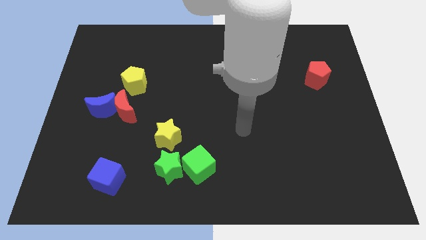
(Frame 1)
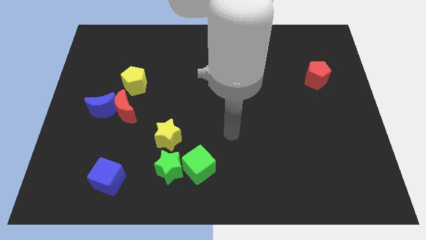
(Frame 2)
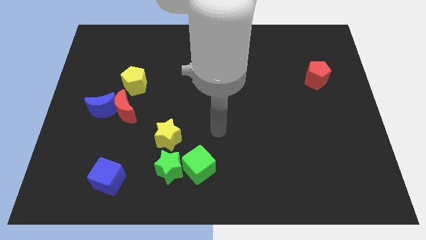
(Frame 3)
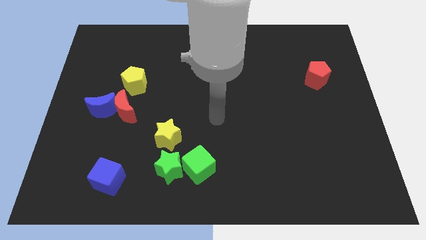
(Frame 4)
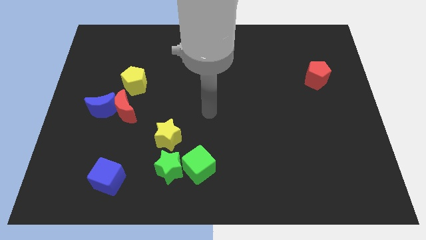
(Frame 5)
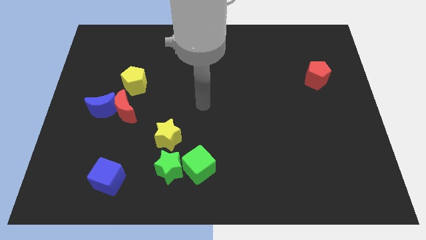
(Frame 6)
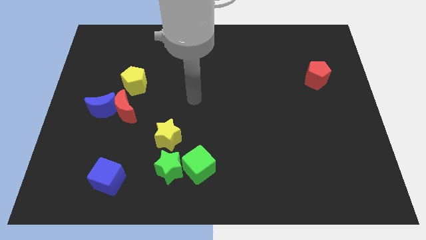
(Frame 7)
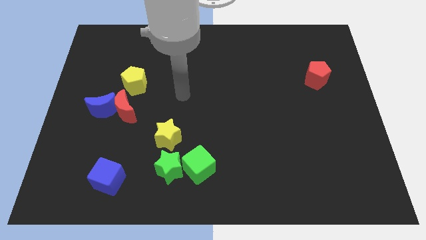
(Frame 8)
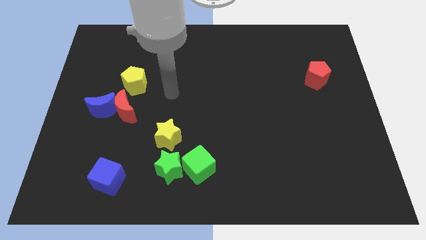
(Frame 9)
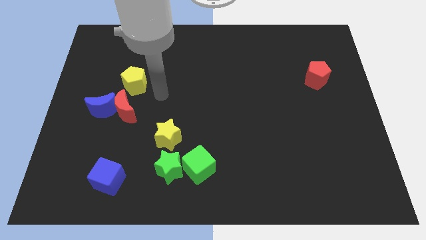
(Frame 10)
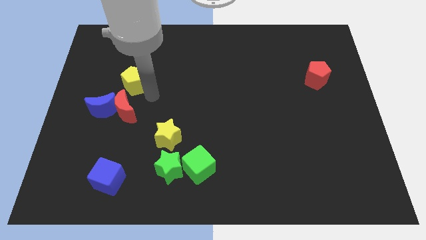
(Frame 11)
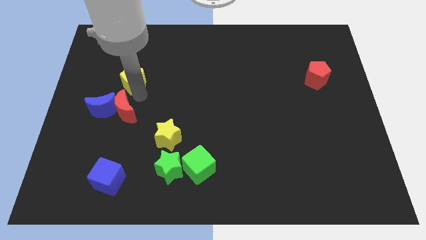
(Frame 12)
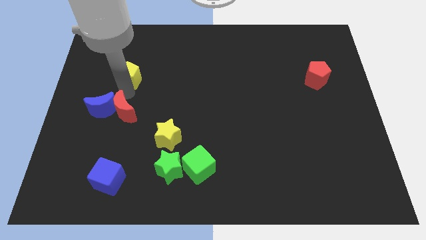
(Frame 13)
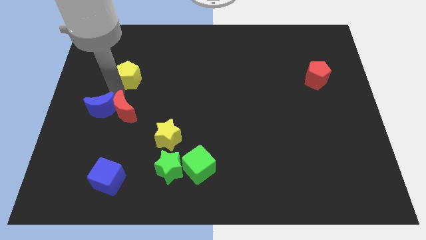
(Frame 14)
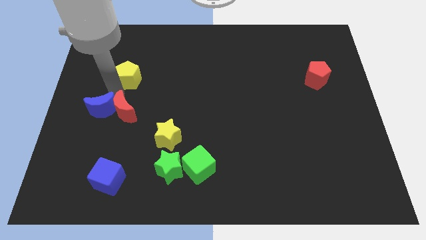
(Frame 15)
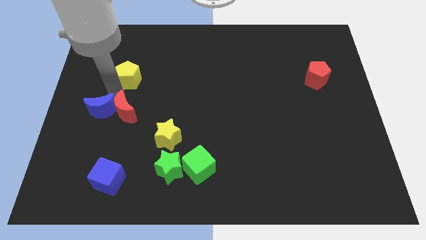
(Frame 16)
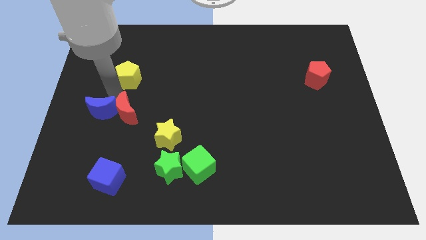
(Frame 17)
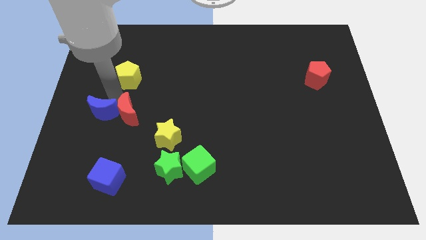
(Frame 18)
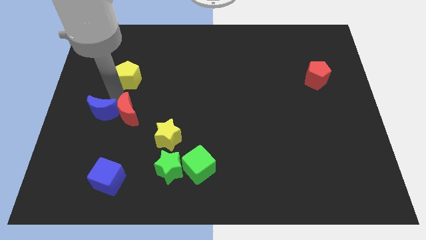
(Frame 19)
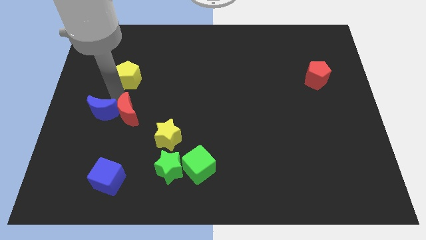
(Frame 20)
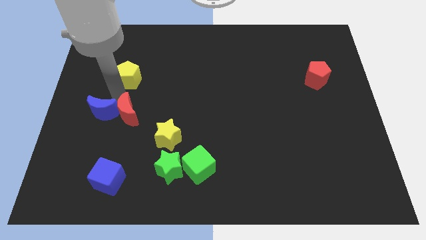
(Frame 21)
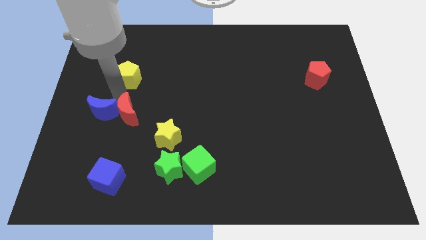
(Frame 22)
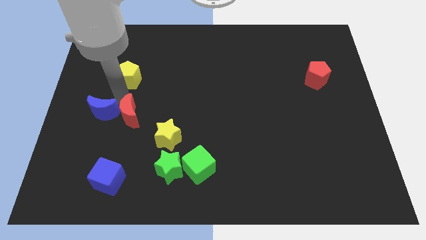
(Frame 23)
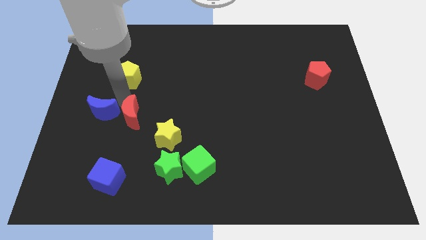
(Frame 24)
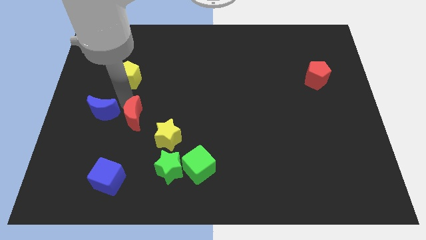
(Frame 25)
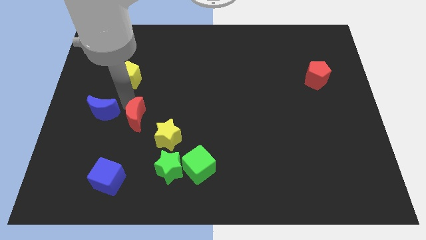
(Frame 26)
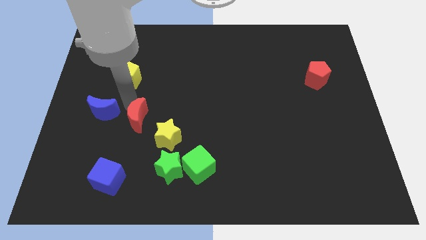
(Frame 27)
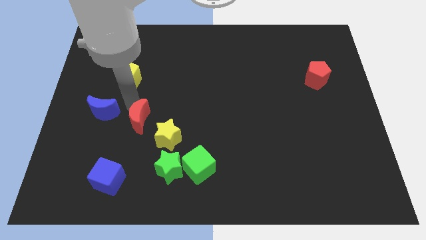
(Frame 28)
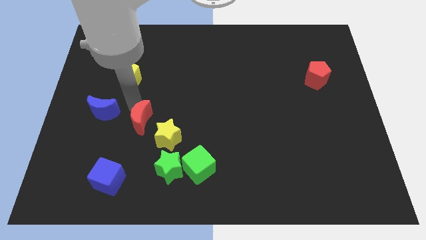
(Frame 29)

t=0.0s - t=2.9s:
move the red moon away from the blue moon and yellow pentagon

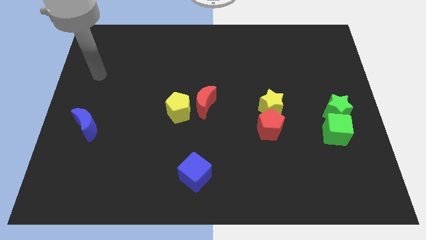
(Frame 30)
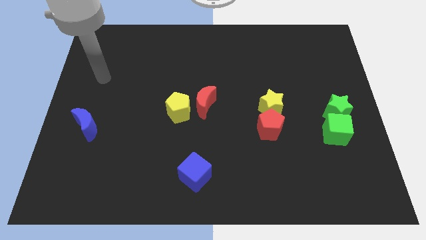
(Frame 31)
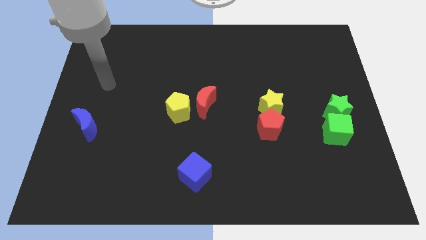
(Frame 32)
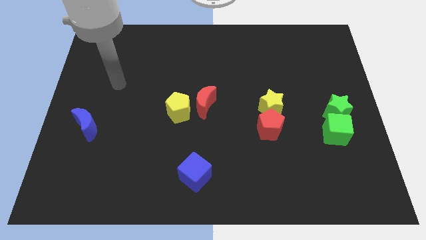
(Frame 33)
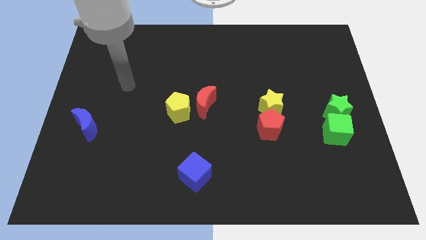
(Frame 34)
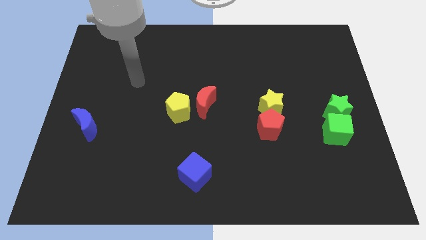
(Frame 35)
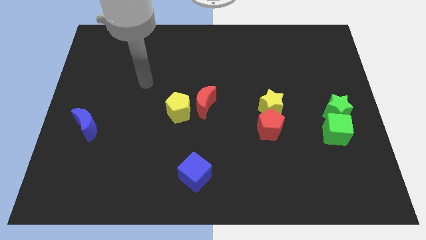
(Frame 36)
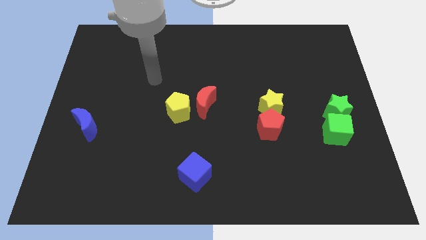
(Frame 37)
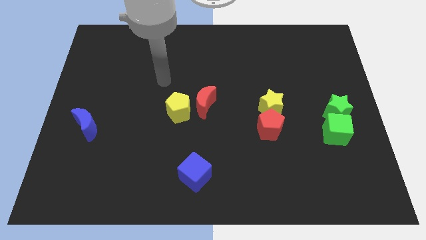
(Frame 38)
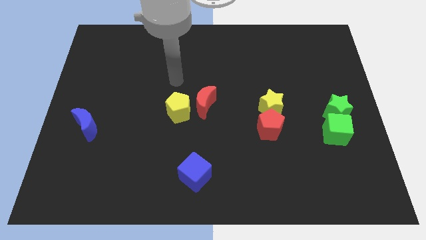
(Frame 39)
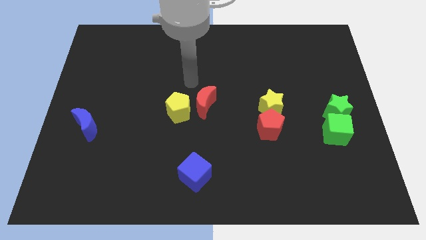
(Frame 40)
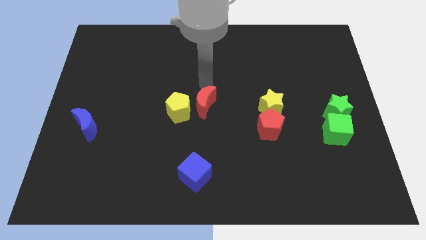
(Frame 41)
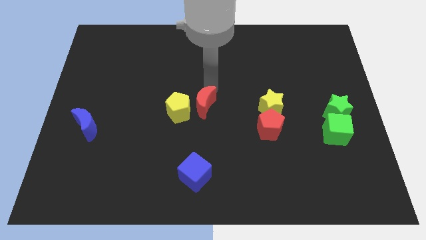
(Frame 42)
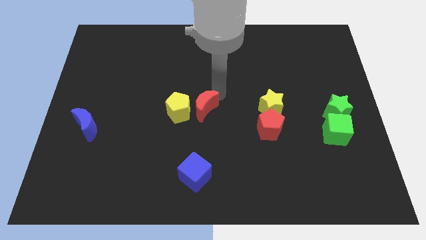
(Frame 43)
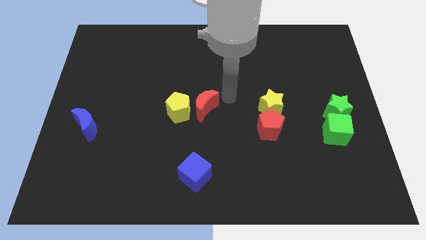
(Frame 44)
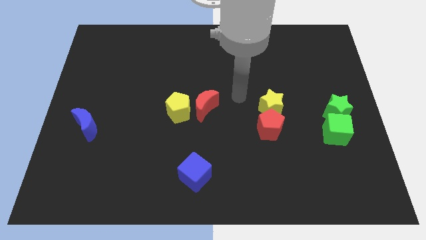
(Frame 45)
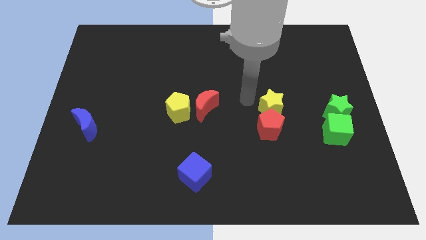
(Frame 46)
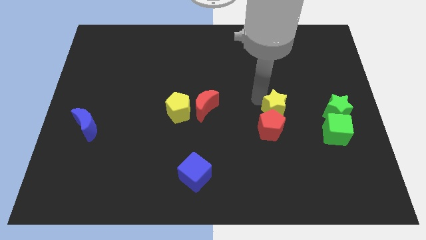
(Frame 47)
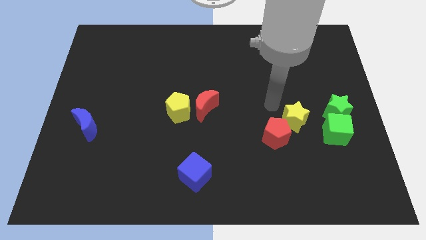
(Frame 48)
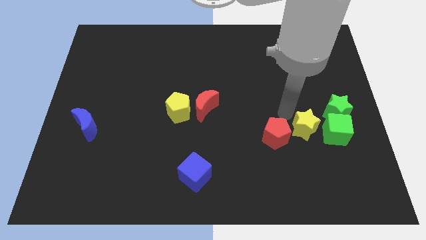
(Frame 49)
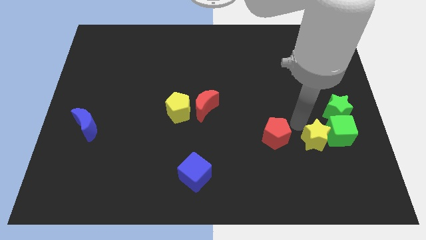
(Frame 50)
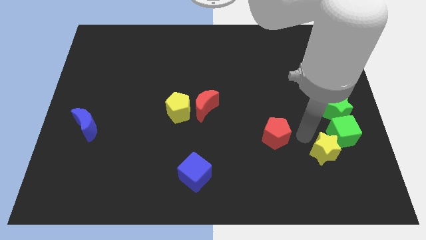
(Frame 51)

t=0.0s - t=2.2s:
move the red pentagon away from the yellow star

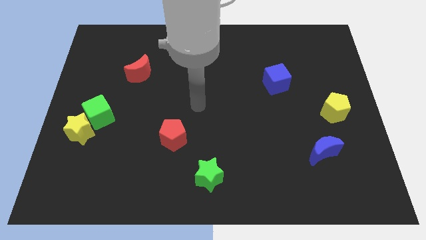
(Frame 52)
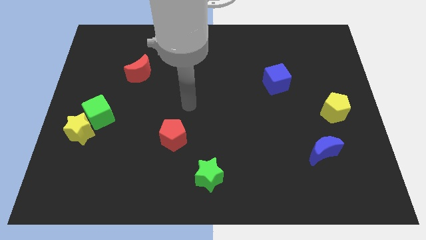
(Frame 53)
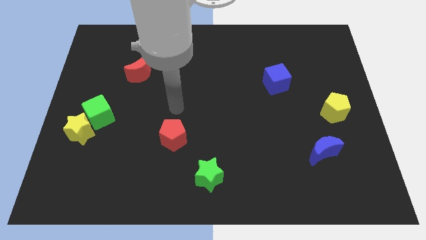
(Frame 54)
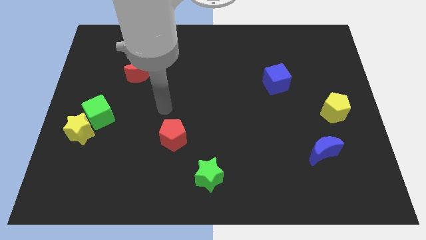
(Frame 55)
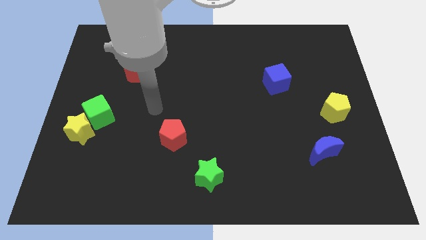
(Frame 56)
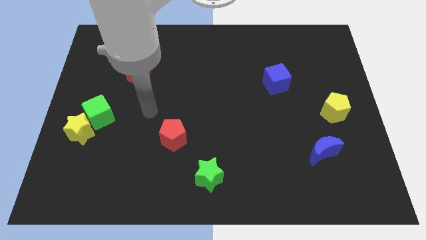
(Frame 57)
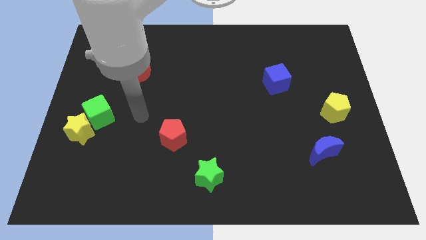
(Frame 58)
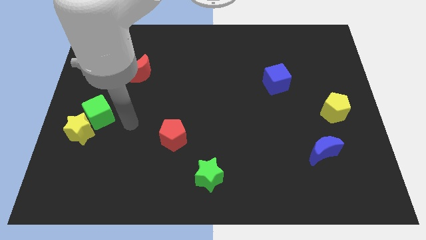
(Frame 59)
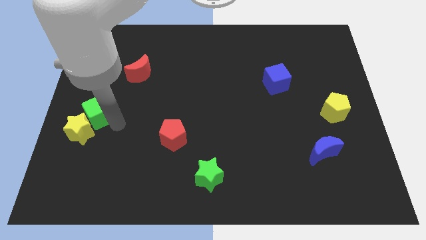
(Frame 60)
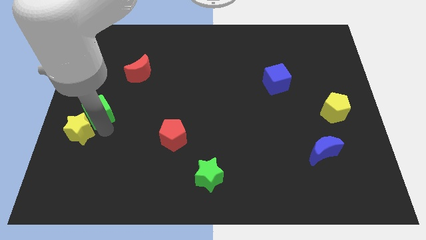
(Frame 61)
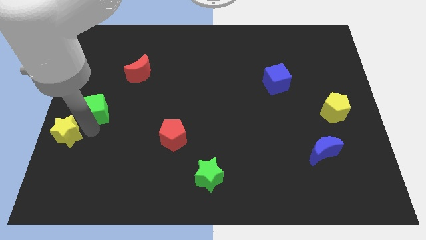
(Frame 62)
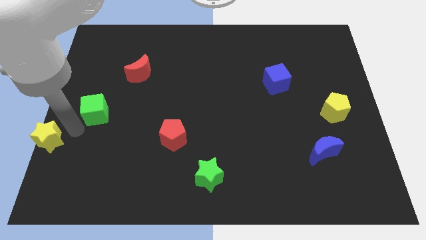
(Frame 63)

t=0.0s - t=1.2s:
separate the green cube from the yellow star

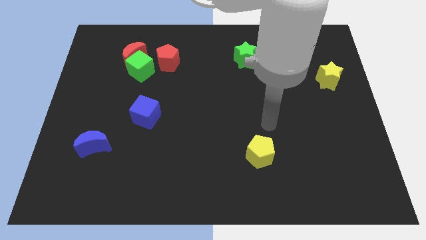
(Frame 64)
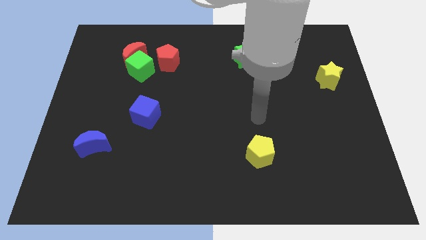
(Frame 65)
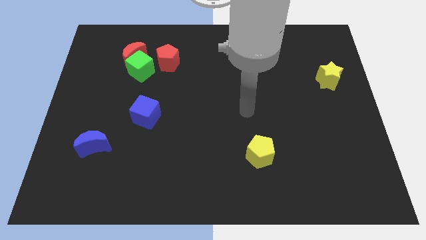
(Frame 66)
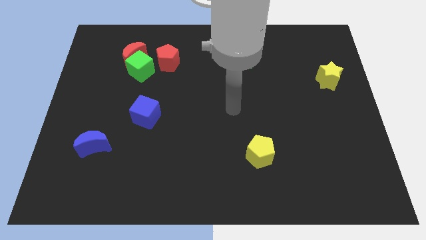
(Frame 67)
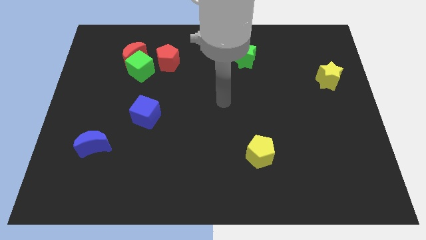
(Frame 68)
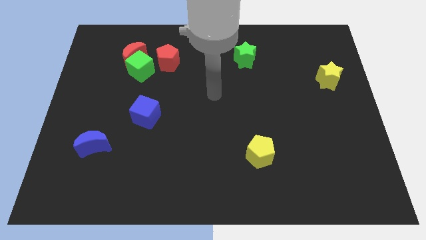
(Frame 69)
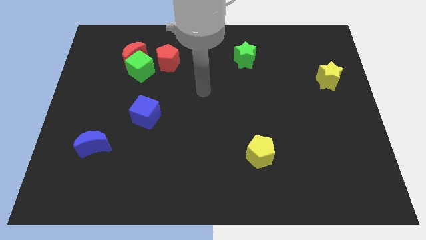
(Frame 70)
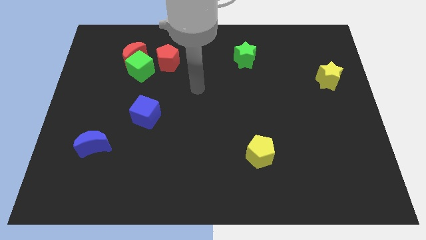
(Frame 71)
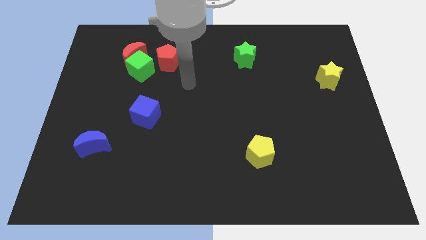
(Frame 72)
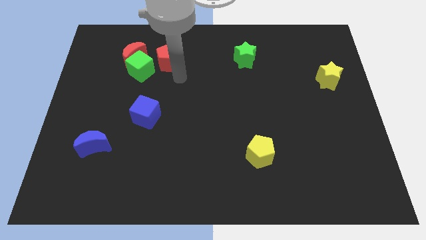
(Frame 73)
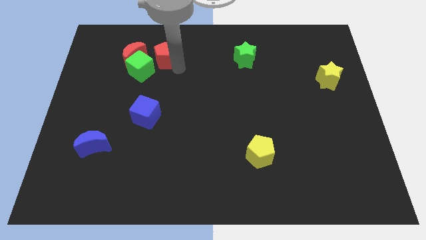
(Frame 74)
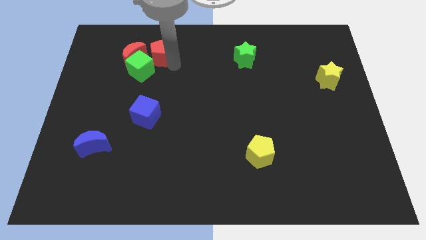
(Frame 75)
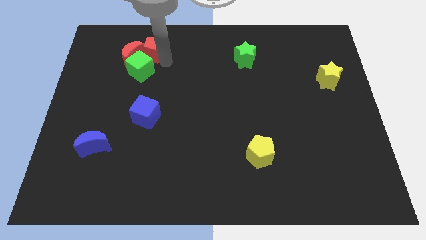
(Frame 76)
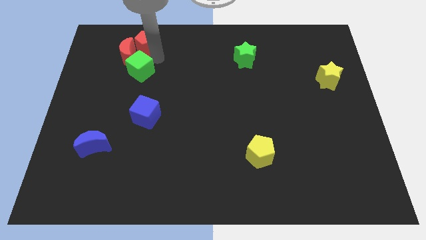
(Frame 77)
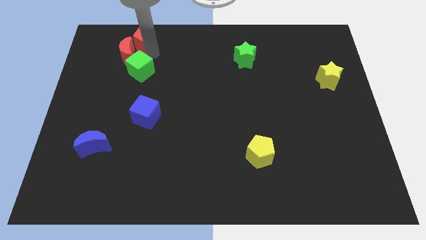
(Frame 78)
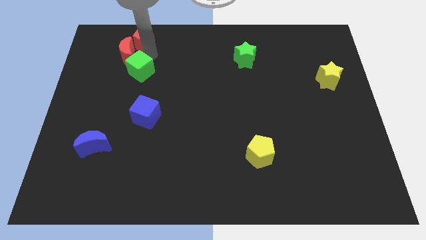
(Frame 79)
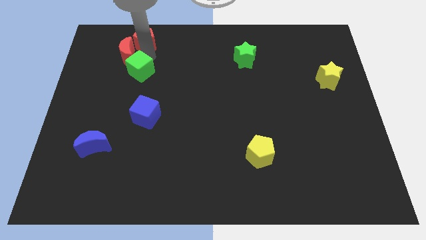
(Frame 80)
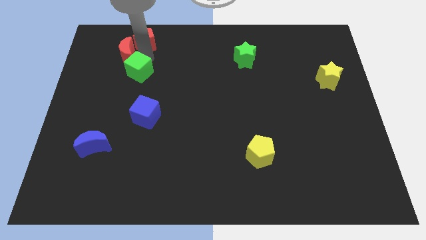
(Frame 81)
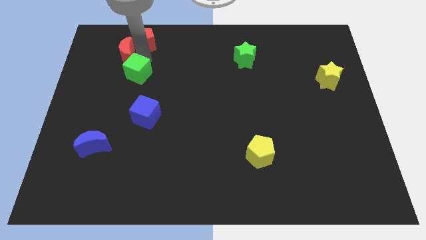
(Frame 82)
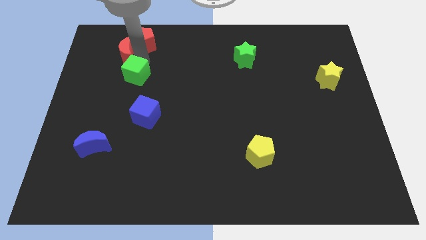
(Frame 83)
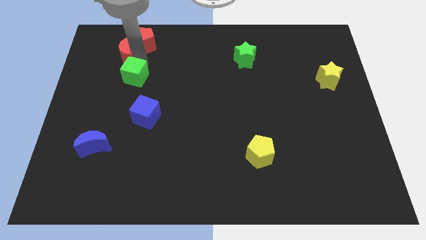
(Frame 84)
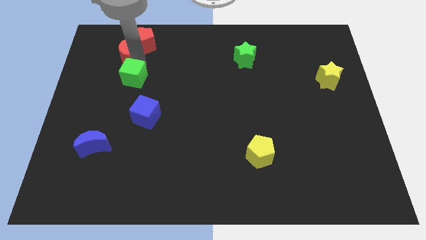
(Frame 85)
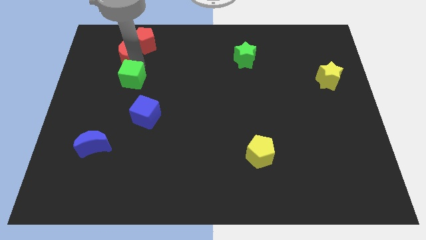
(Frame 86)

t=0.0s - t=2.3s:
pull the green cube apart from the red moon and red pentagon

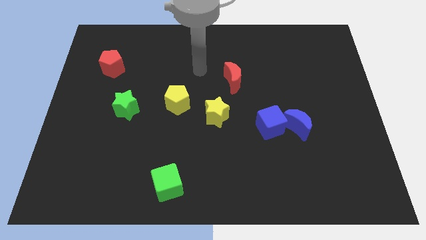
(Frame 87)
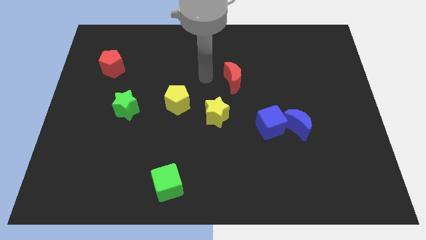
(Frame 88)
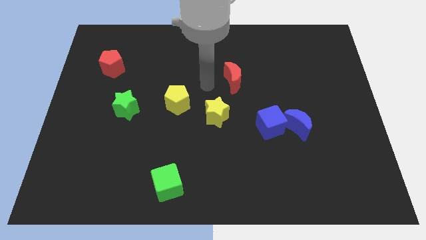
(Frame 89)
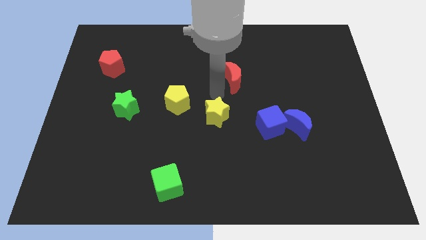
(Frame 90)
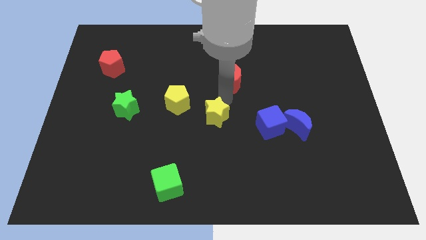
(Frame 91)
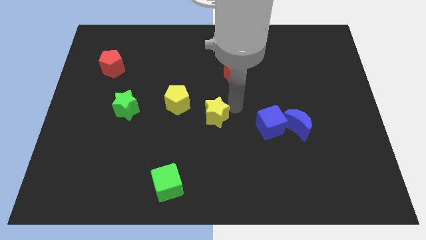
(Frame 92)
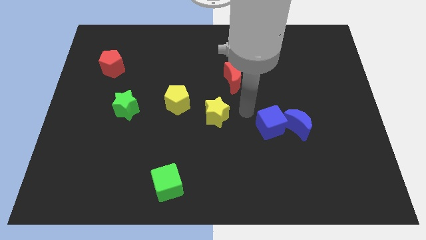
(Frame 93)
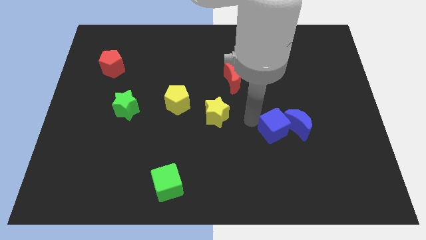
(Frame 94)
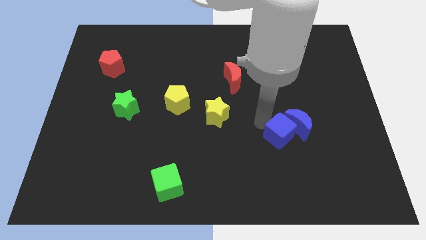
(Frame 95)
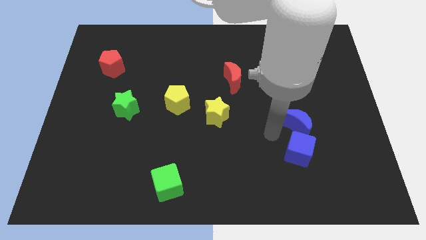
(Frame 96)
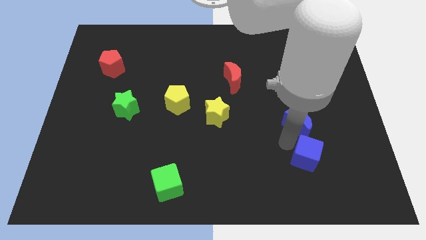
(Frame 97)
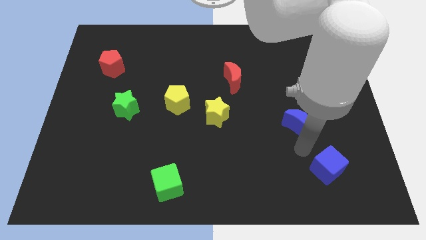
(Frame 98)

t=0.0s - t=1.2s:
pull the blue moon apart from the blue cube
